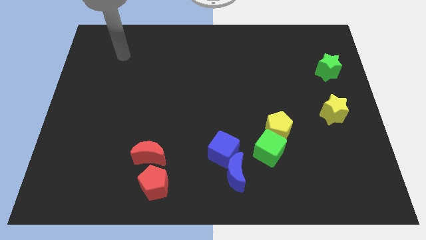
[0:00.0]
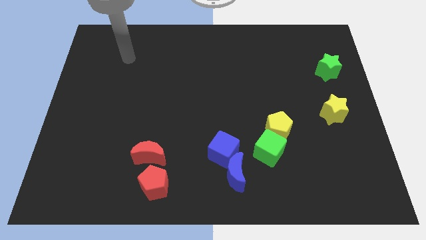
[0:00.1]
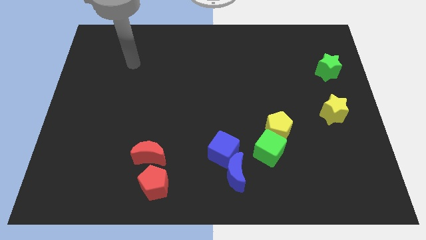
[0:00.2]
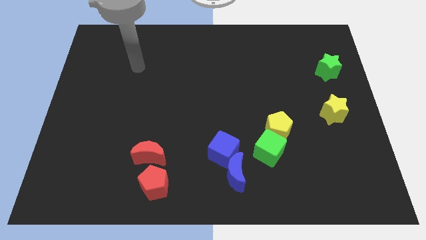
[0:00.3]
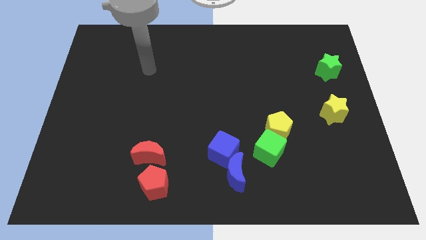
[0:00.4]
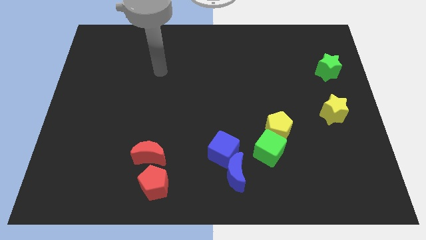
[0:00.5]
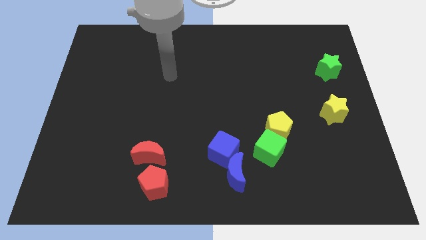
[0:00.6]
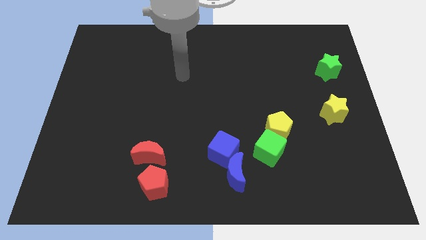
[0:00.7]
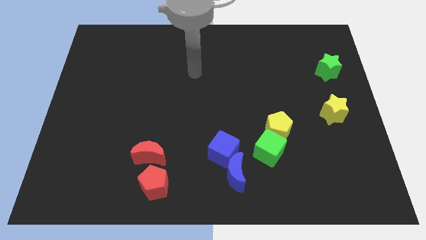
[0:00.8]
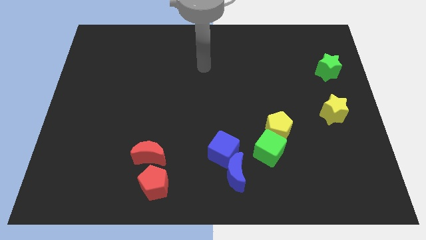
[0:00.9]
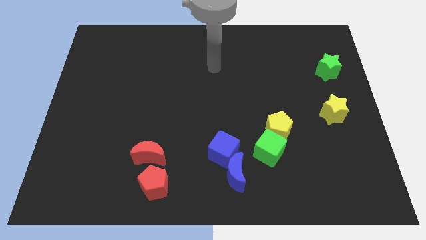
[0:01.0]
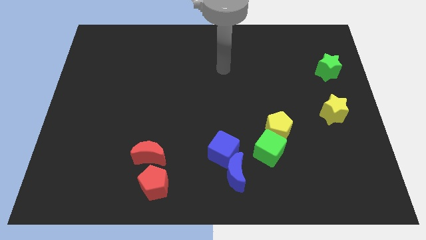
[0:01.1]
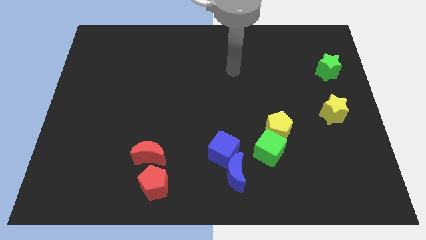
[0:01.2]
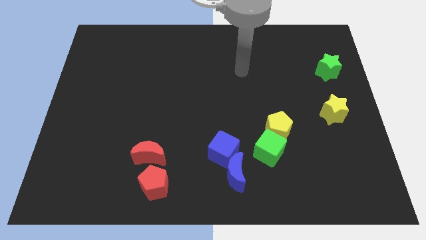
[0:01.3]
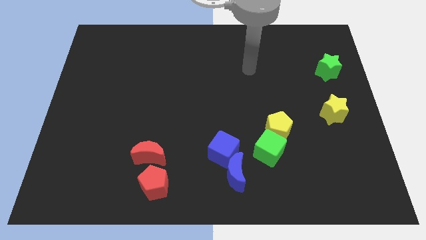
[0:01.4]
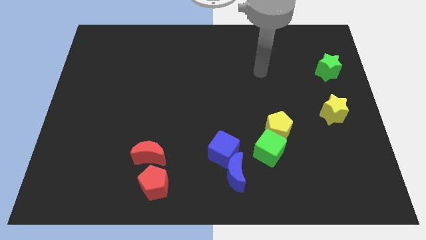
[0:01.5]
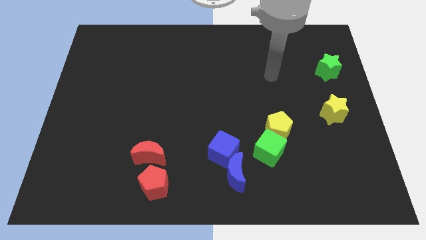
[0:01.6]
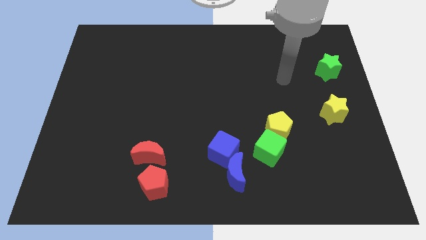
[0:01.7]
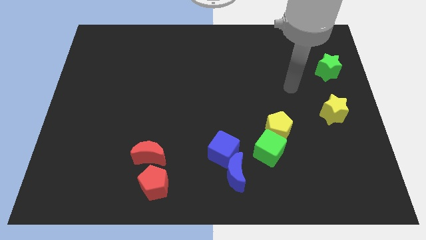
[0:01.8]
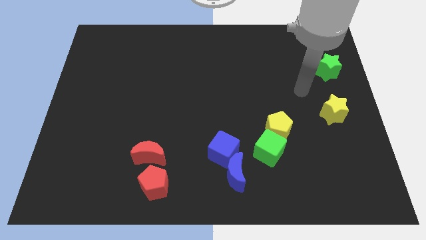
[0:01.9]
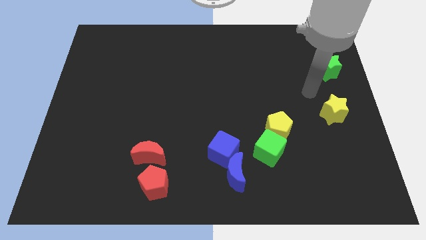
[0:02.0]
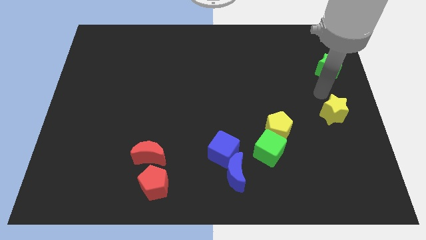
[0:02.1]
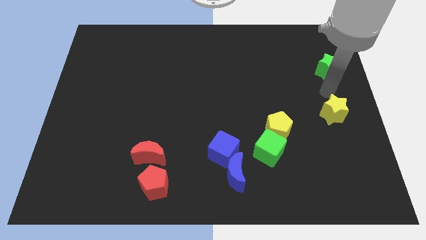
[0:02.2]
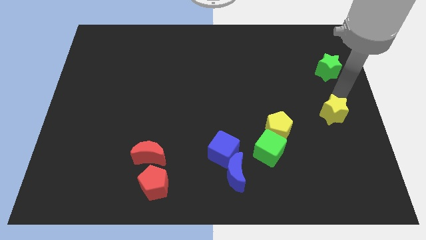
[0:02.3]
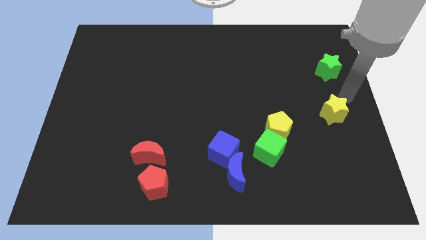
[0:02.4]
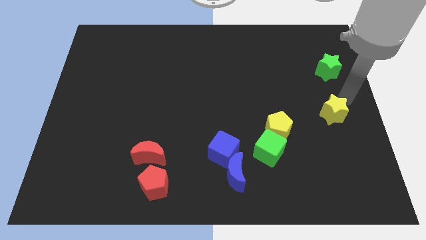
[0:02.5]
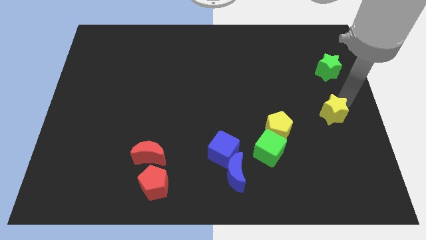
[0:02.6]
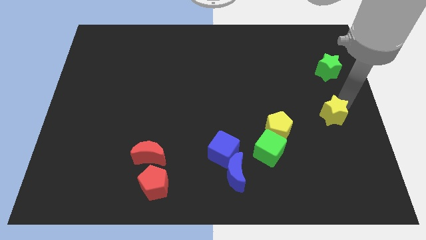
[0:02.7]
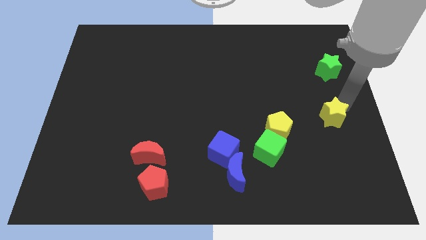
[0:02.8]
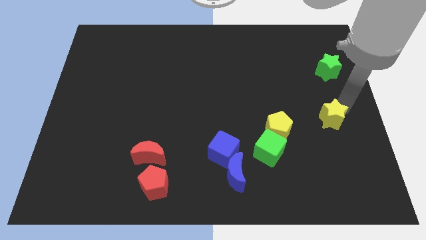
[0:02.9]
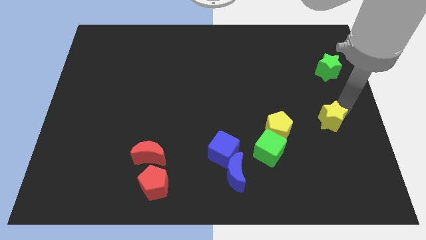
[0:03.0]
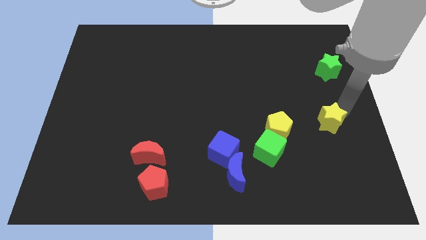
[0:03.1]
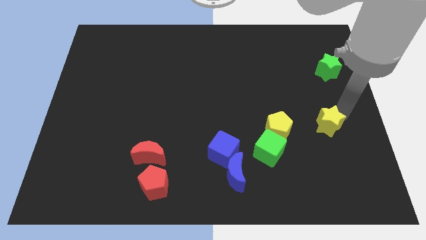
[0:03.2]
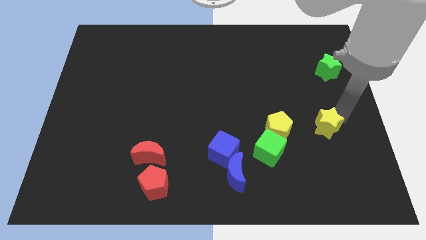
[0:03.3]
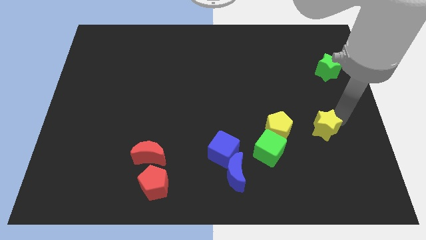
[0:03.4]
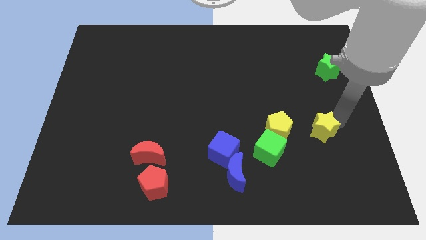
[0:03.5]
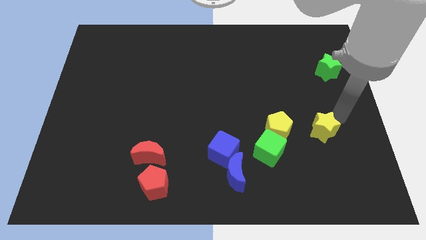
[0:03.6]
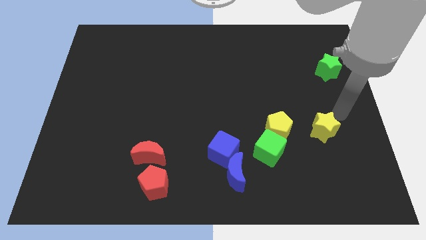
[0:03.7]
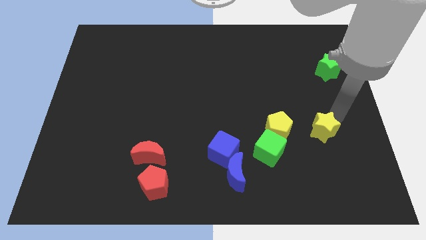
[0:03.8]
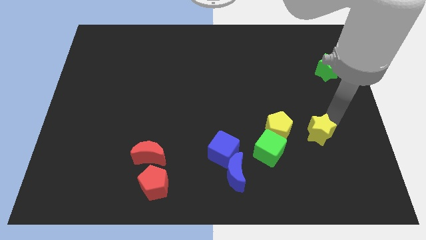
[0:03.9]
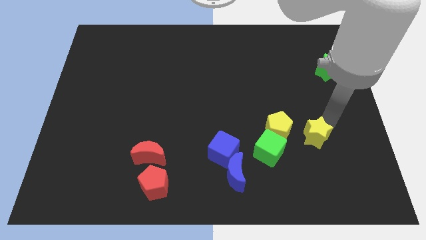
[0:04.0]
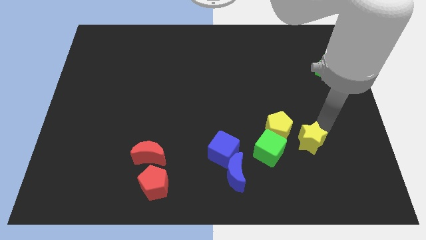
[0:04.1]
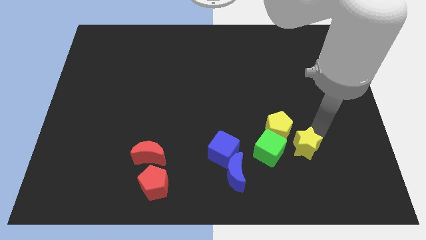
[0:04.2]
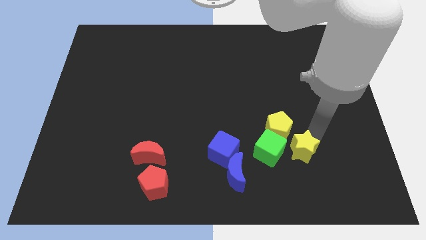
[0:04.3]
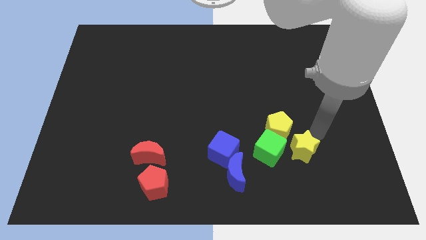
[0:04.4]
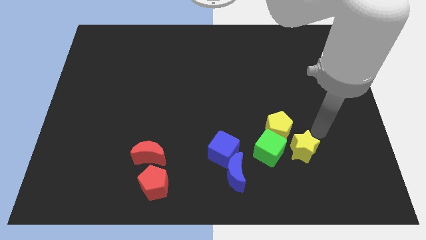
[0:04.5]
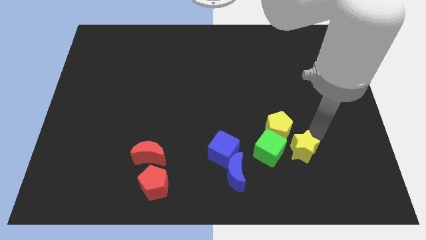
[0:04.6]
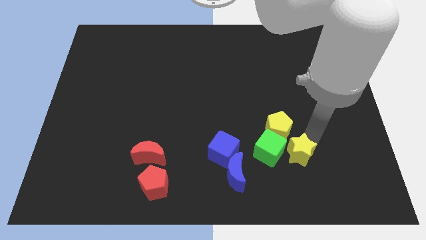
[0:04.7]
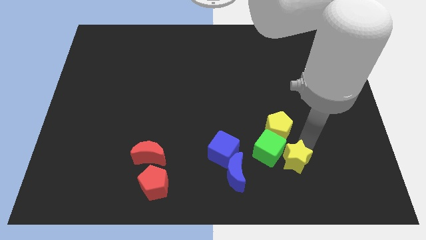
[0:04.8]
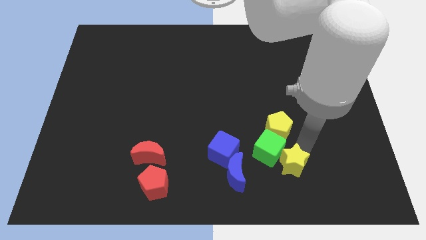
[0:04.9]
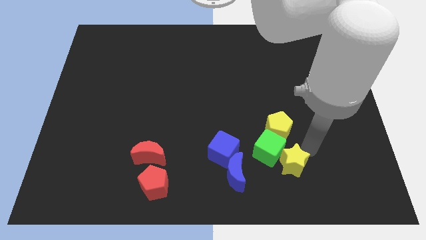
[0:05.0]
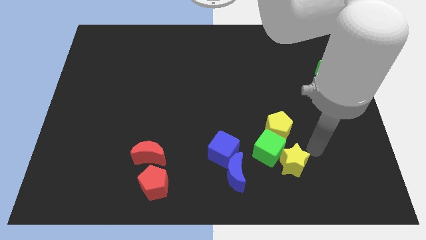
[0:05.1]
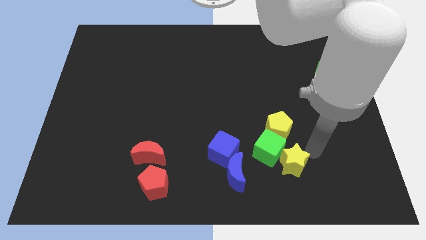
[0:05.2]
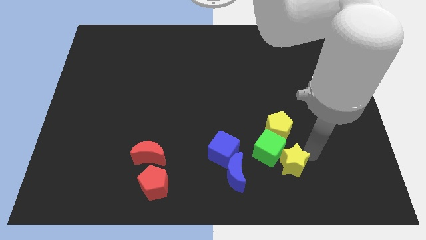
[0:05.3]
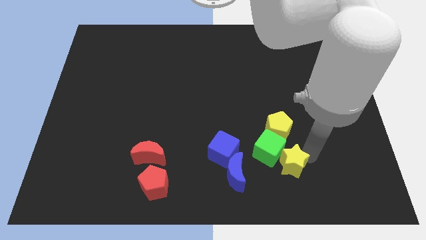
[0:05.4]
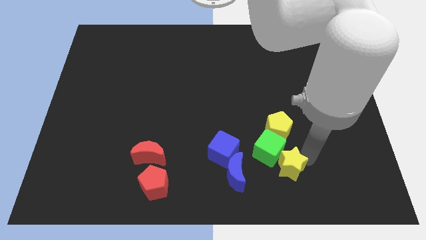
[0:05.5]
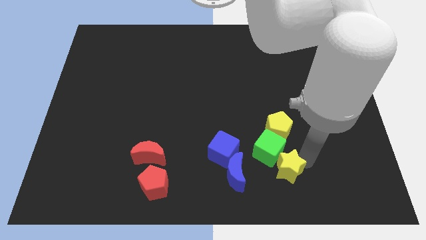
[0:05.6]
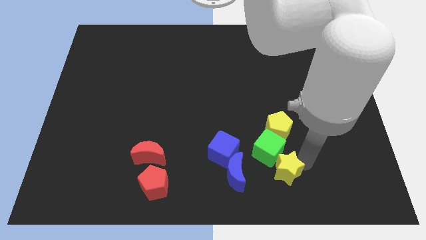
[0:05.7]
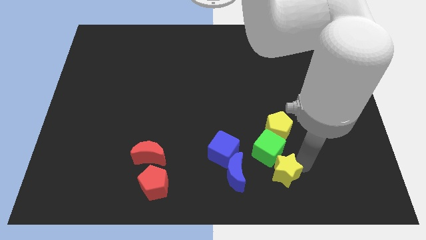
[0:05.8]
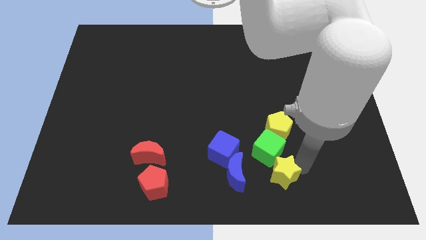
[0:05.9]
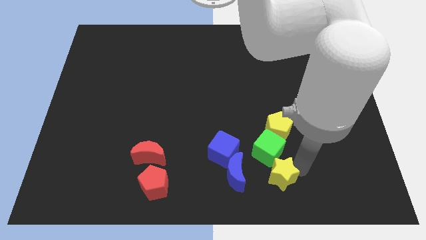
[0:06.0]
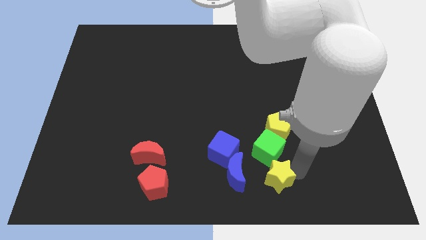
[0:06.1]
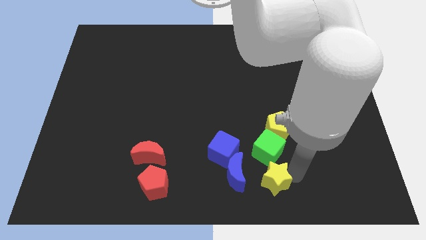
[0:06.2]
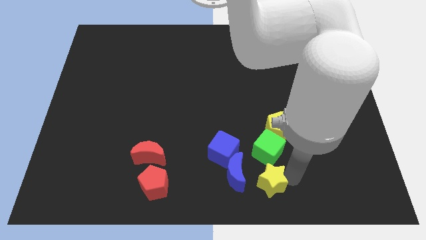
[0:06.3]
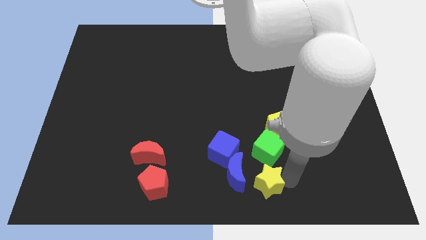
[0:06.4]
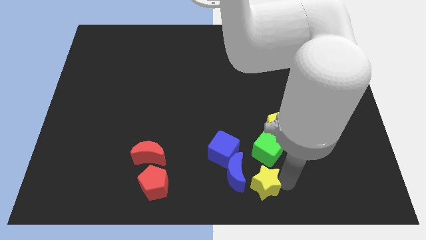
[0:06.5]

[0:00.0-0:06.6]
put the yellow star towards the blue moon

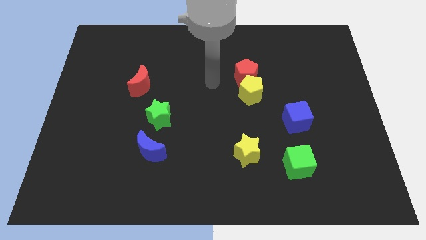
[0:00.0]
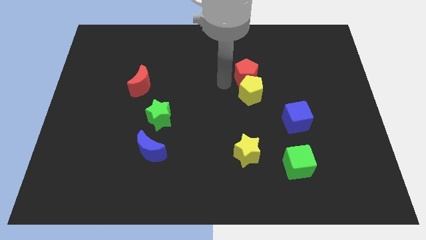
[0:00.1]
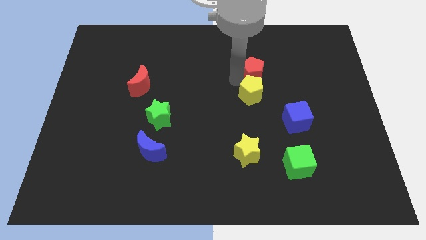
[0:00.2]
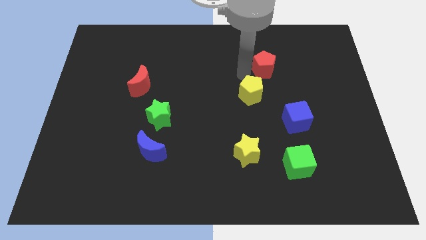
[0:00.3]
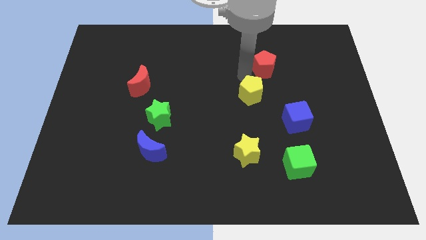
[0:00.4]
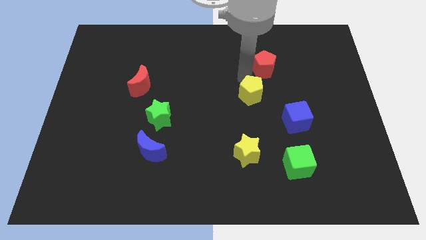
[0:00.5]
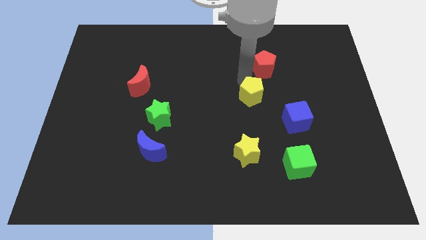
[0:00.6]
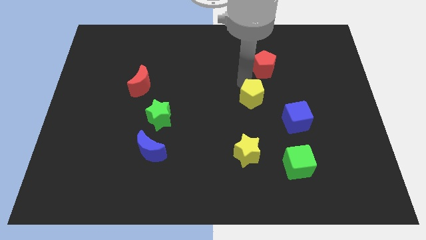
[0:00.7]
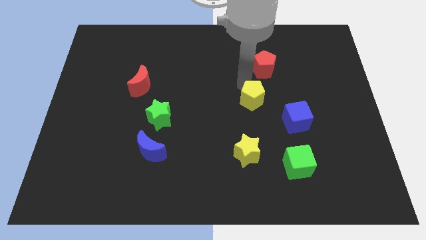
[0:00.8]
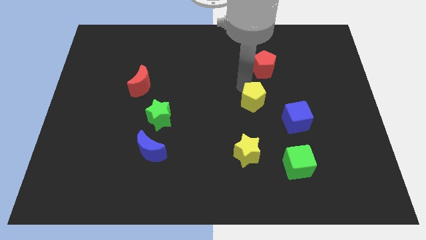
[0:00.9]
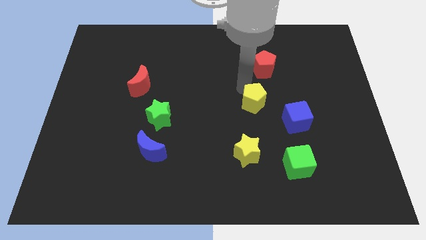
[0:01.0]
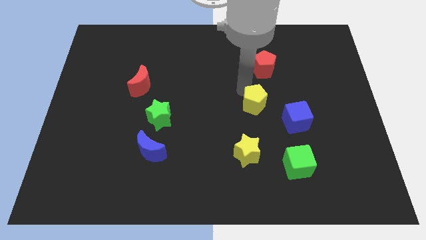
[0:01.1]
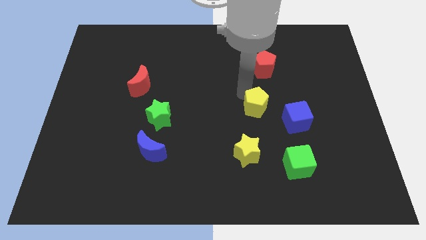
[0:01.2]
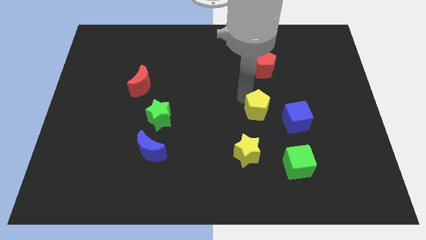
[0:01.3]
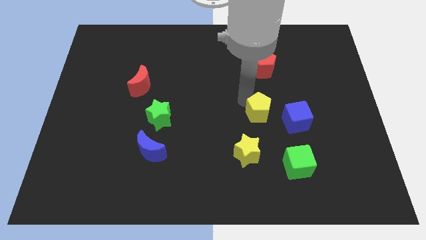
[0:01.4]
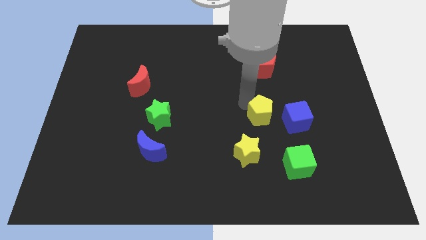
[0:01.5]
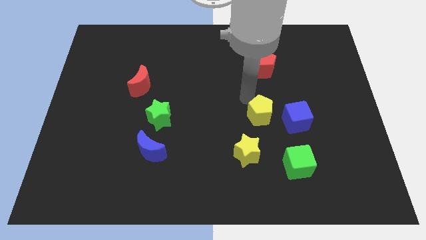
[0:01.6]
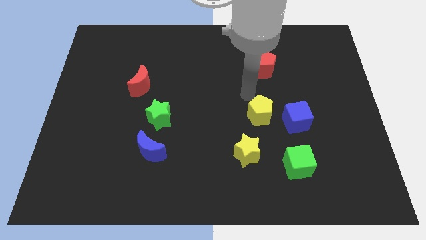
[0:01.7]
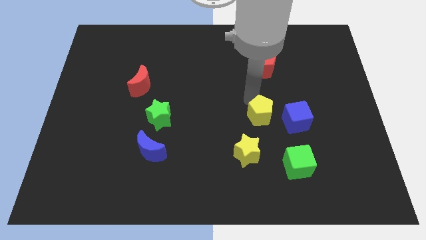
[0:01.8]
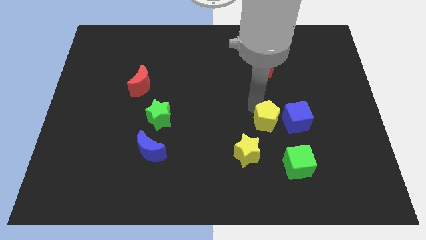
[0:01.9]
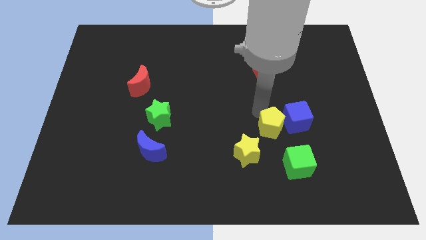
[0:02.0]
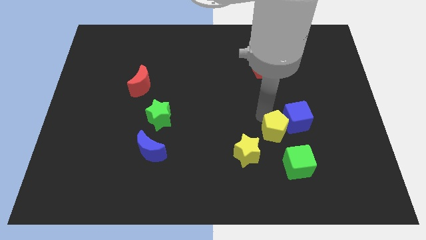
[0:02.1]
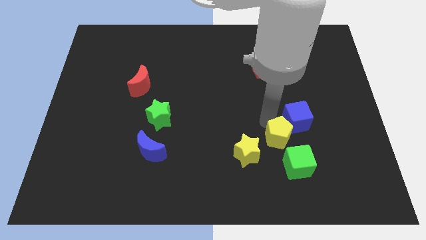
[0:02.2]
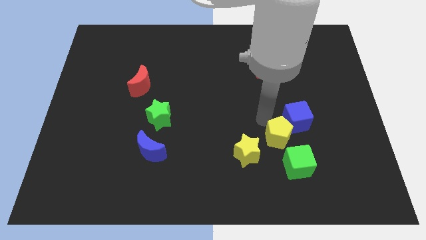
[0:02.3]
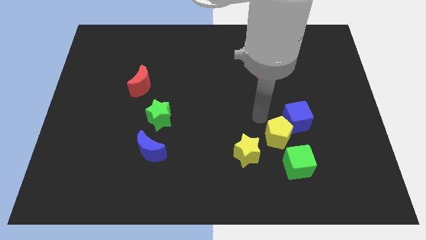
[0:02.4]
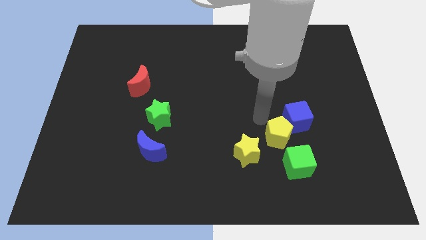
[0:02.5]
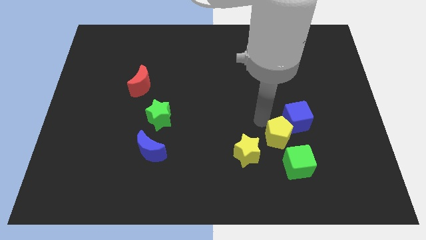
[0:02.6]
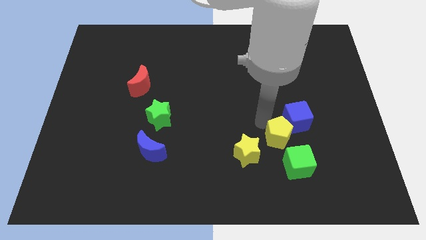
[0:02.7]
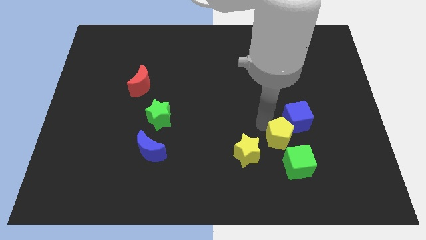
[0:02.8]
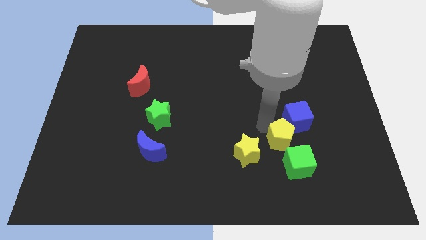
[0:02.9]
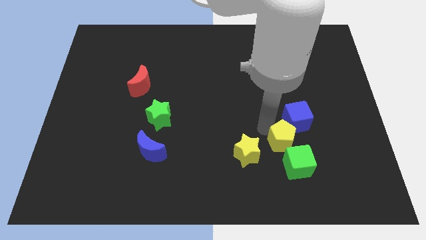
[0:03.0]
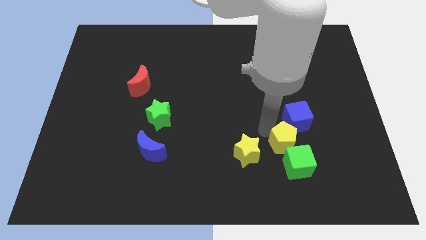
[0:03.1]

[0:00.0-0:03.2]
push the yellow pentagon close to the green cube
